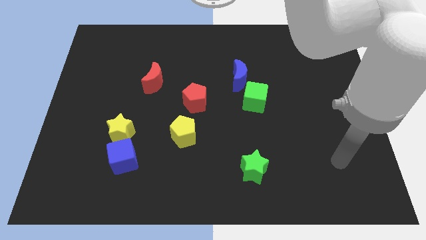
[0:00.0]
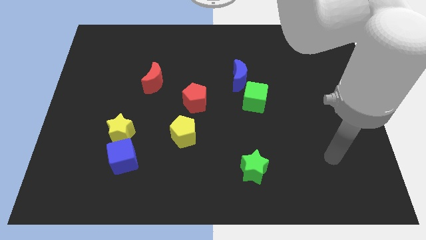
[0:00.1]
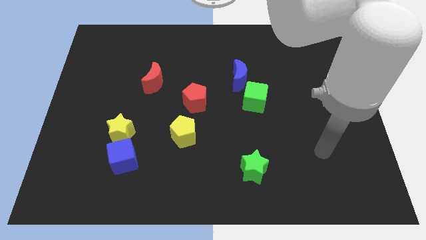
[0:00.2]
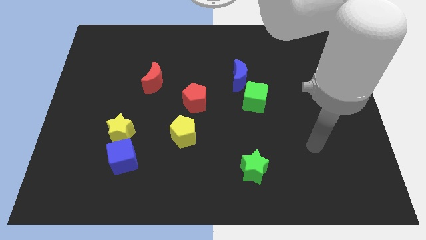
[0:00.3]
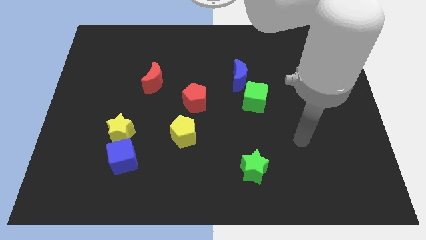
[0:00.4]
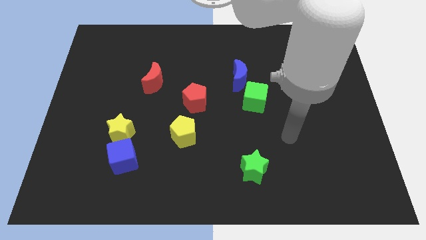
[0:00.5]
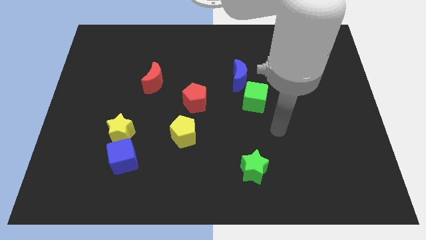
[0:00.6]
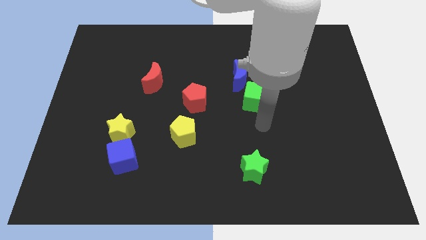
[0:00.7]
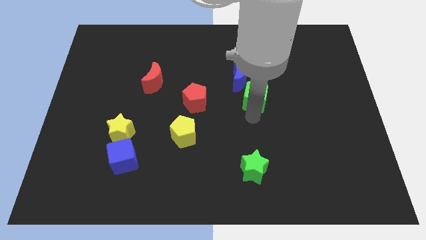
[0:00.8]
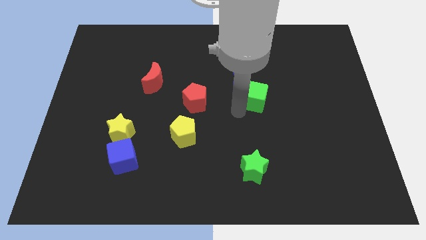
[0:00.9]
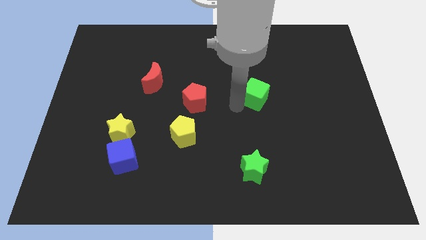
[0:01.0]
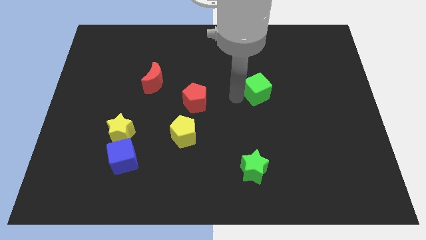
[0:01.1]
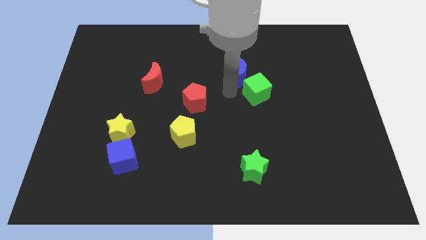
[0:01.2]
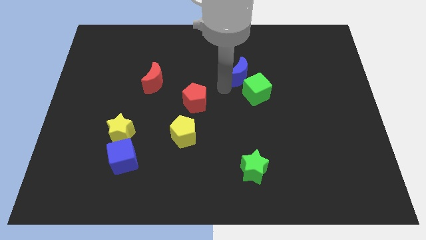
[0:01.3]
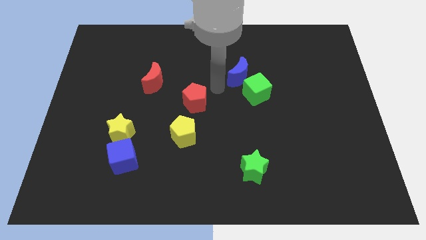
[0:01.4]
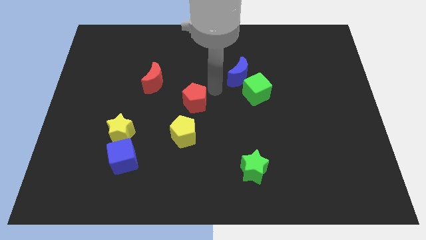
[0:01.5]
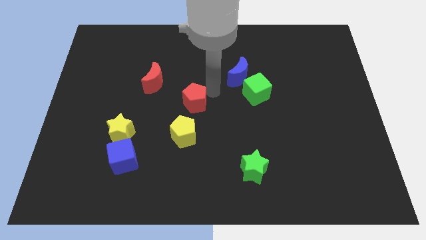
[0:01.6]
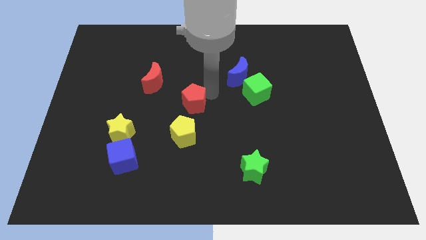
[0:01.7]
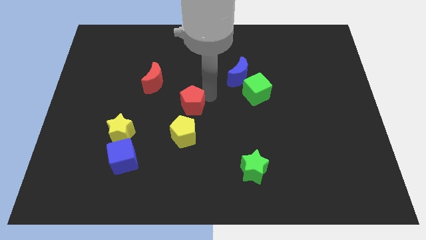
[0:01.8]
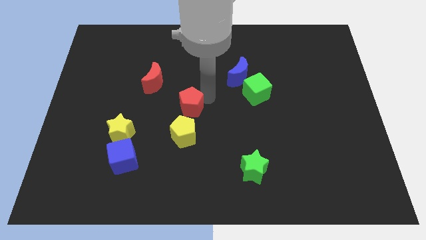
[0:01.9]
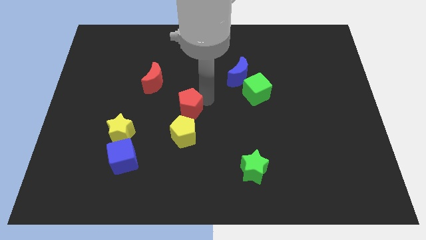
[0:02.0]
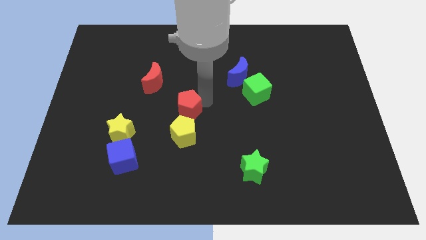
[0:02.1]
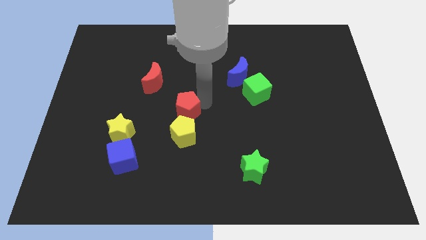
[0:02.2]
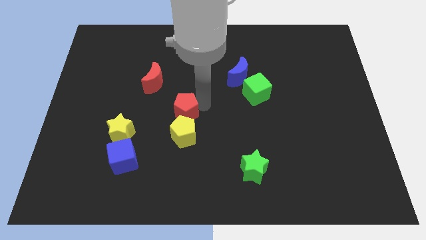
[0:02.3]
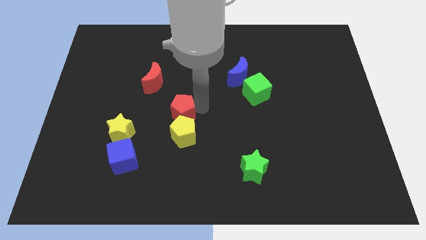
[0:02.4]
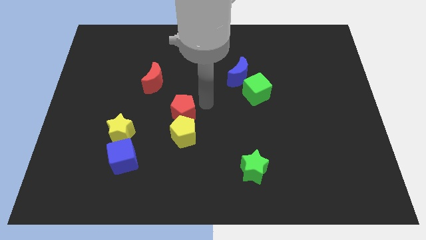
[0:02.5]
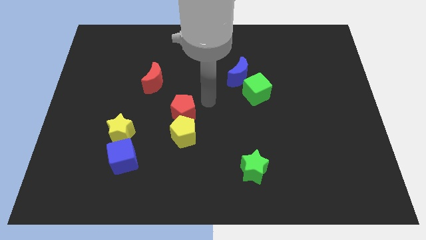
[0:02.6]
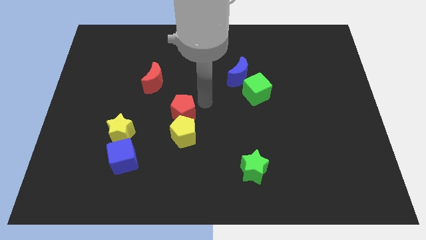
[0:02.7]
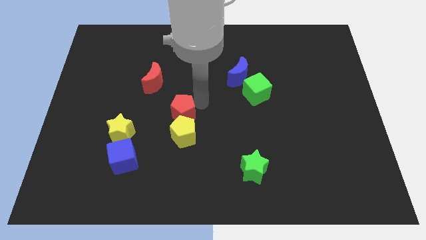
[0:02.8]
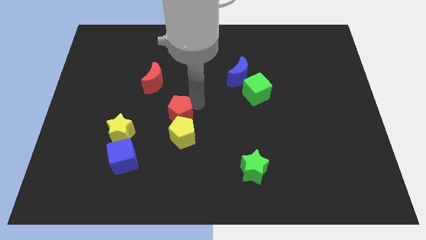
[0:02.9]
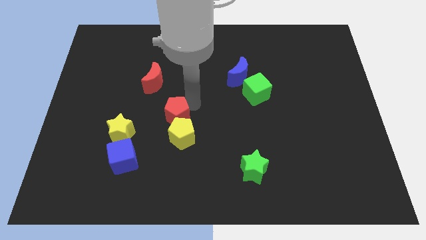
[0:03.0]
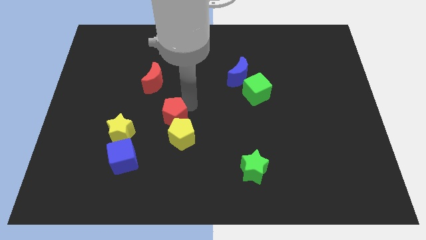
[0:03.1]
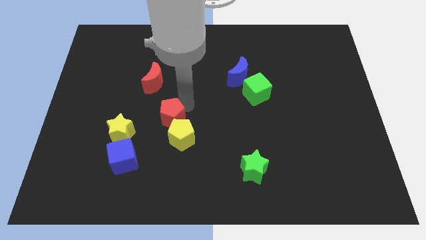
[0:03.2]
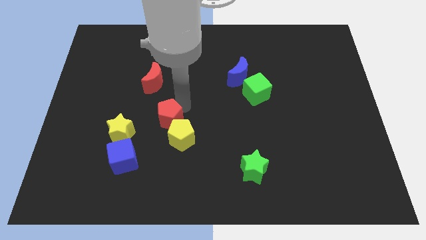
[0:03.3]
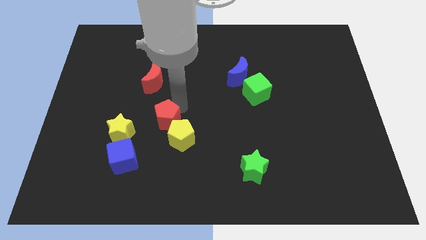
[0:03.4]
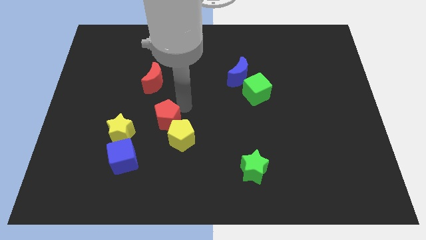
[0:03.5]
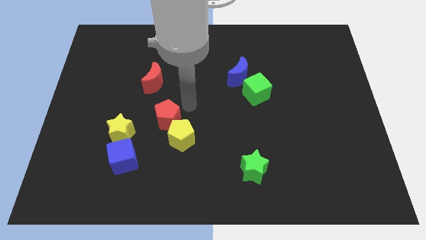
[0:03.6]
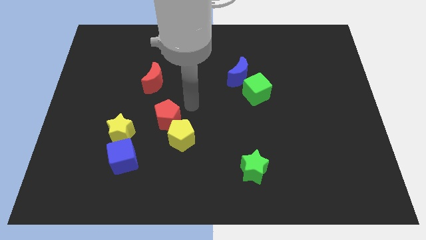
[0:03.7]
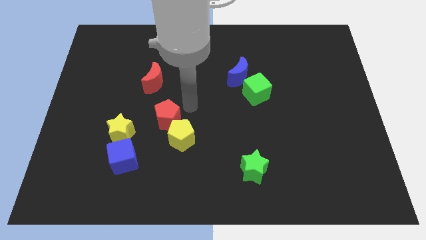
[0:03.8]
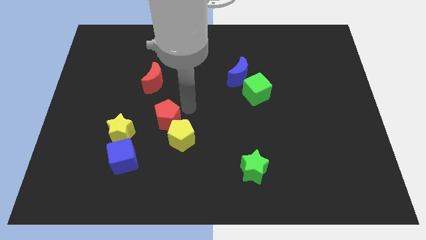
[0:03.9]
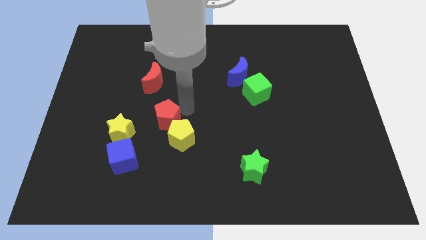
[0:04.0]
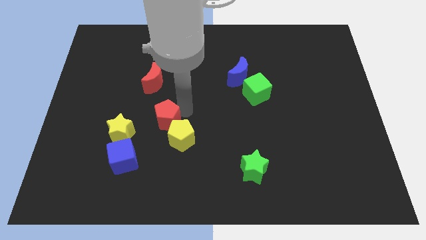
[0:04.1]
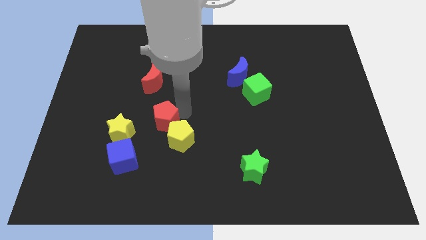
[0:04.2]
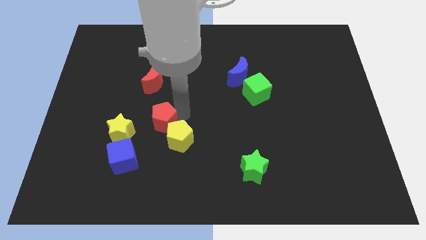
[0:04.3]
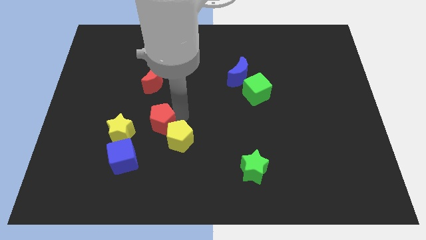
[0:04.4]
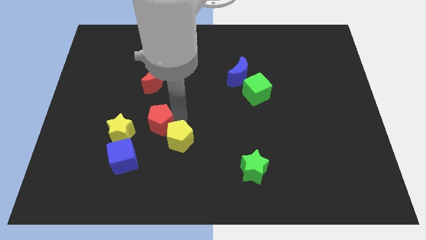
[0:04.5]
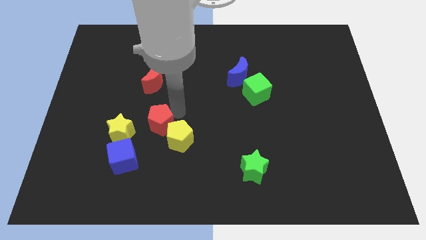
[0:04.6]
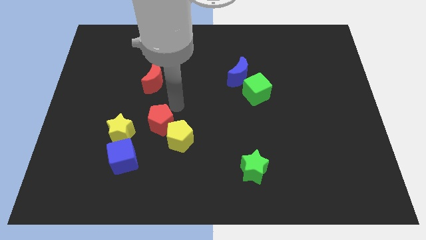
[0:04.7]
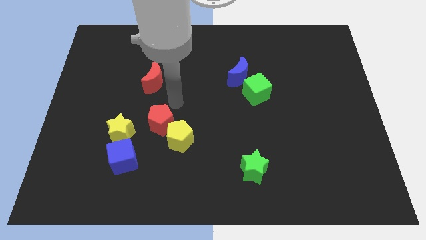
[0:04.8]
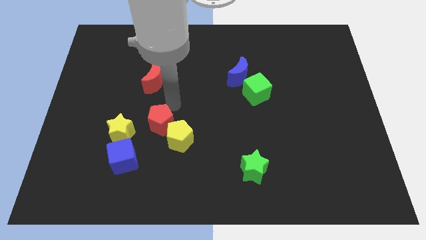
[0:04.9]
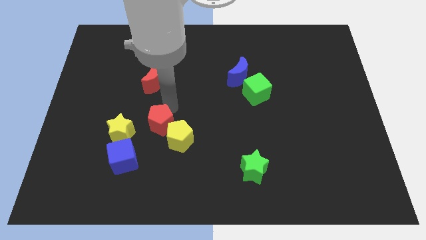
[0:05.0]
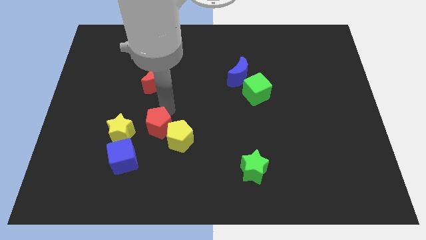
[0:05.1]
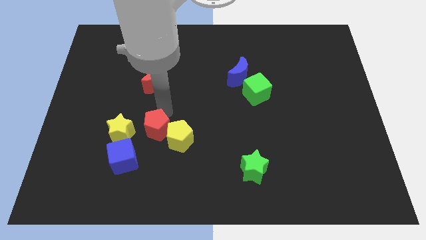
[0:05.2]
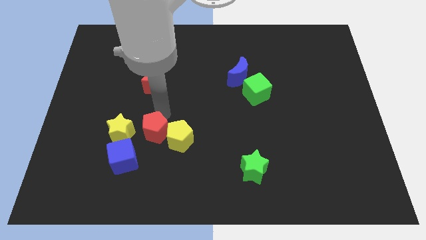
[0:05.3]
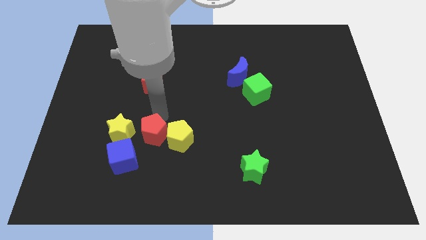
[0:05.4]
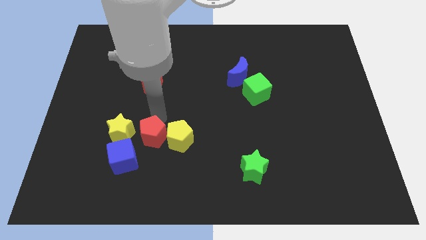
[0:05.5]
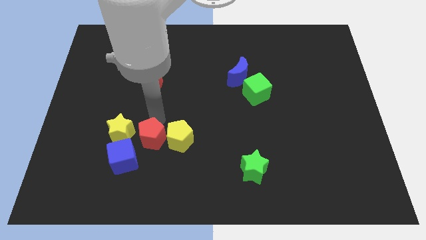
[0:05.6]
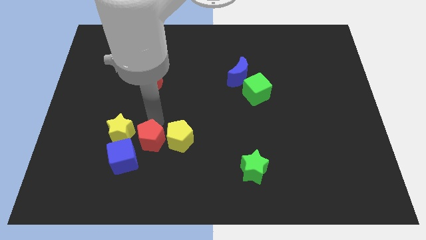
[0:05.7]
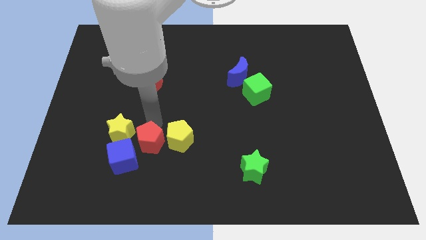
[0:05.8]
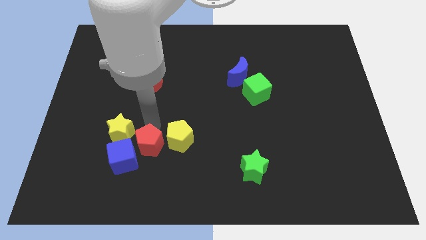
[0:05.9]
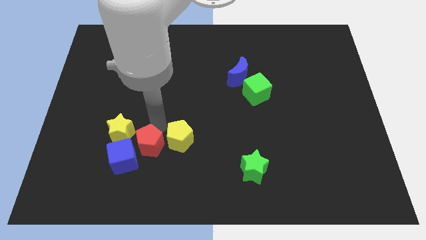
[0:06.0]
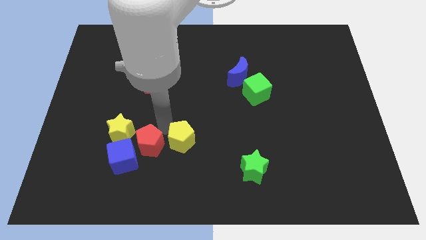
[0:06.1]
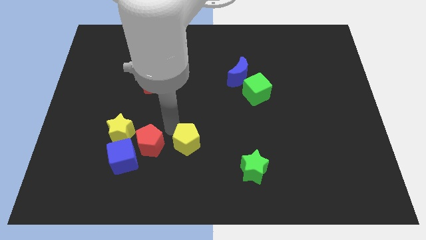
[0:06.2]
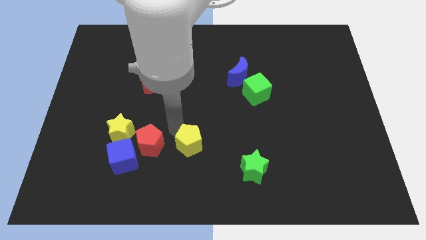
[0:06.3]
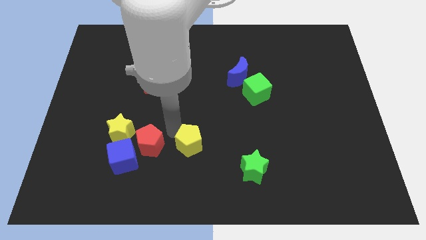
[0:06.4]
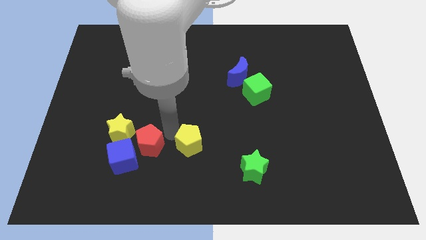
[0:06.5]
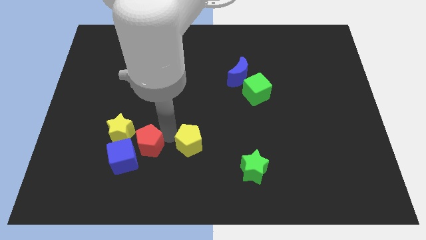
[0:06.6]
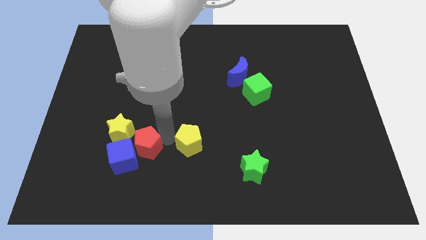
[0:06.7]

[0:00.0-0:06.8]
move the red pentagon towards the blue cube

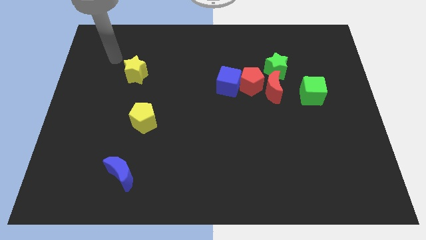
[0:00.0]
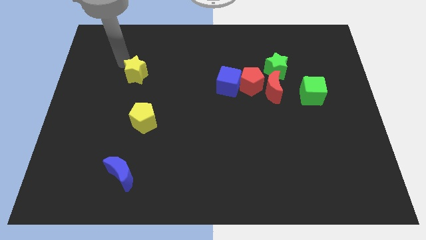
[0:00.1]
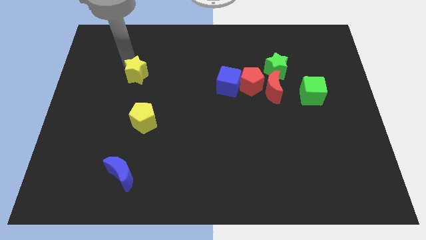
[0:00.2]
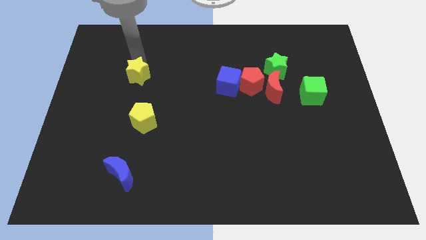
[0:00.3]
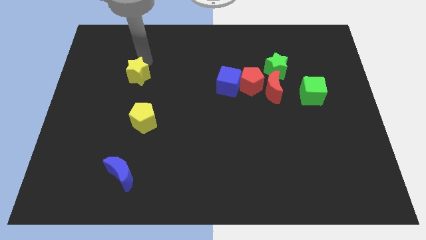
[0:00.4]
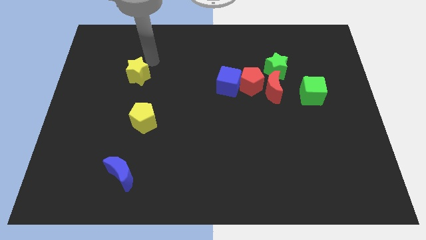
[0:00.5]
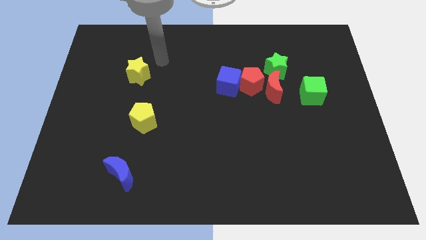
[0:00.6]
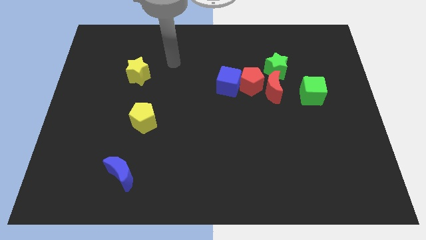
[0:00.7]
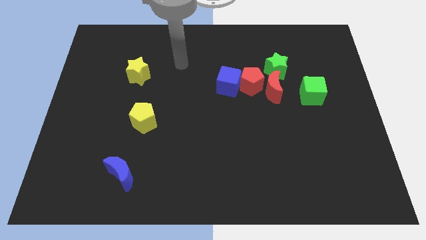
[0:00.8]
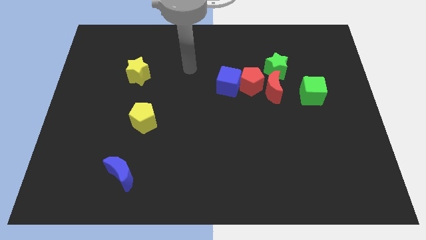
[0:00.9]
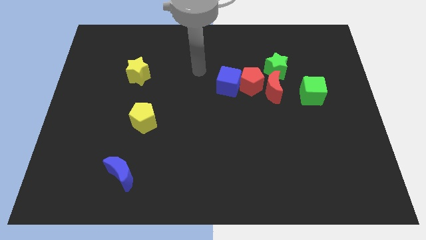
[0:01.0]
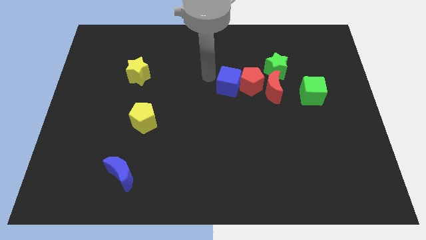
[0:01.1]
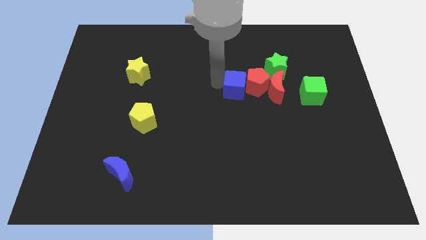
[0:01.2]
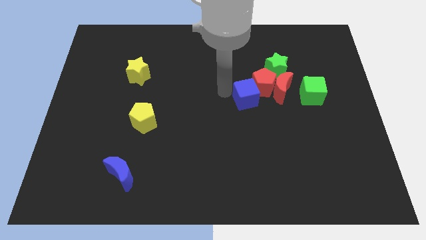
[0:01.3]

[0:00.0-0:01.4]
push the red pentagon next to the green star
